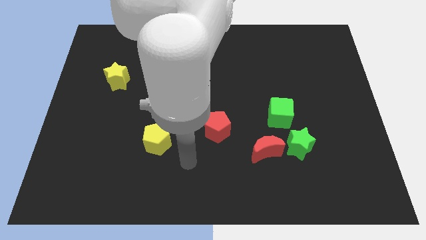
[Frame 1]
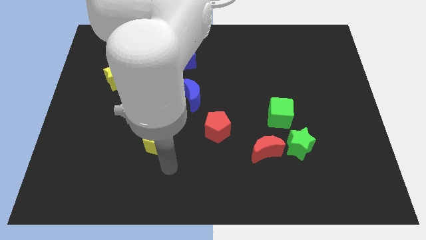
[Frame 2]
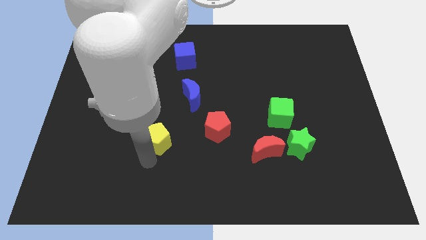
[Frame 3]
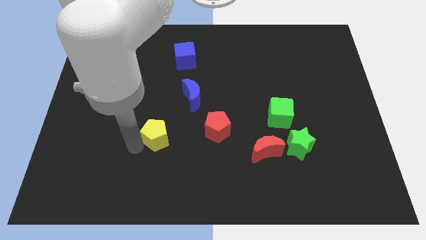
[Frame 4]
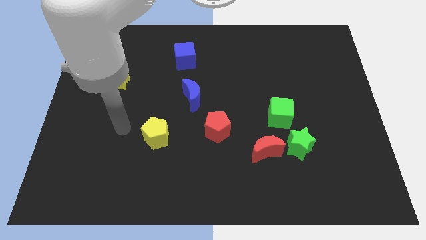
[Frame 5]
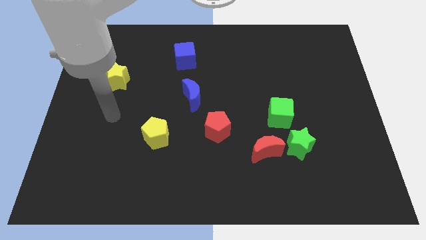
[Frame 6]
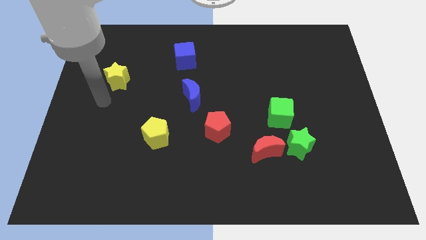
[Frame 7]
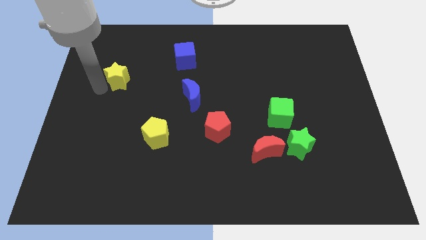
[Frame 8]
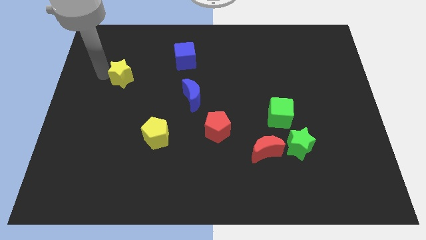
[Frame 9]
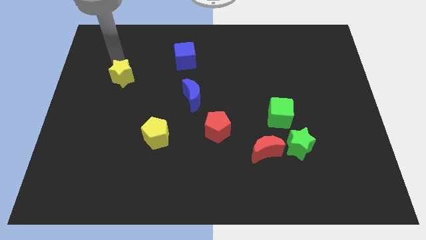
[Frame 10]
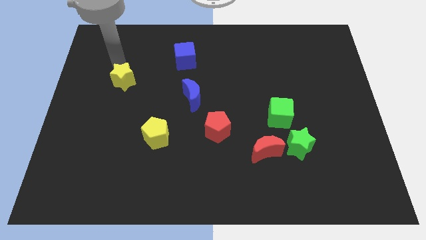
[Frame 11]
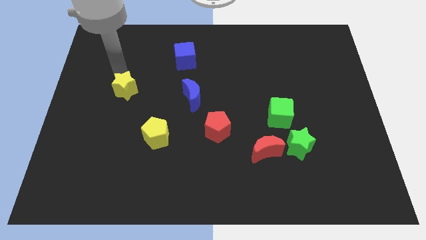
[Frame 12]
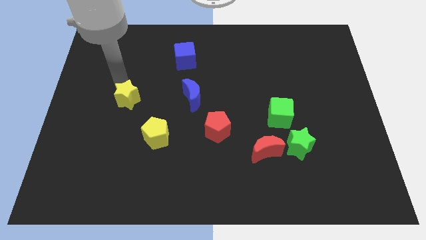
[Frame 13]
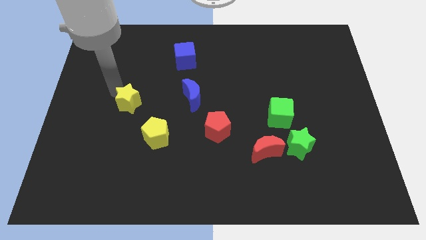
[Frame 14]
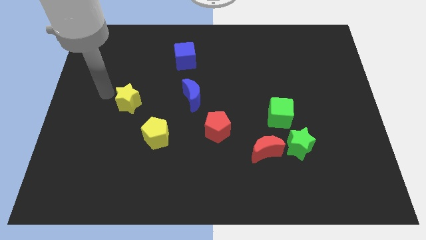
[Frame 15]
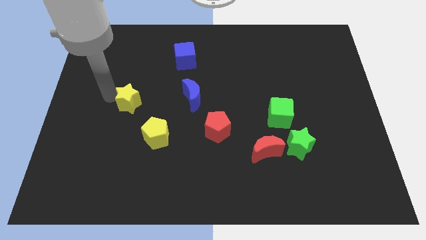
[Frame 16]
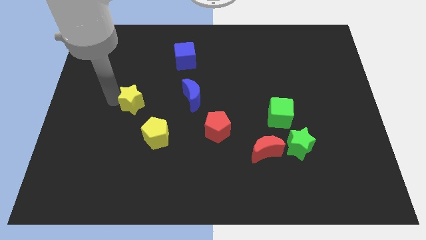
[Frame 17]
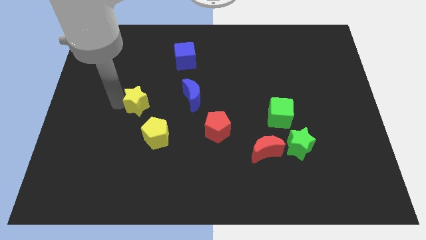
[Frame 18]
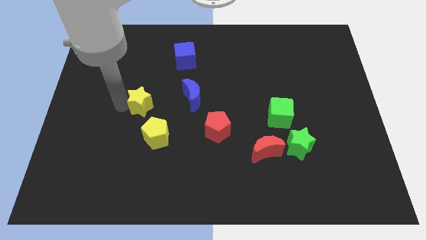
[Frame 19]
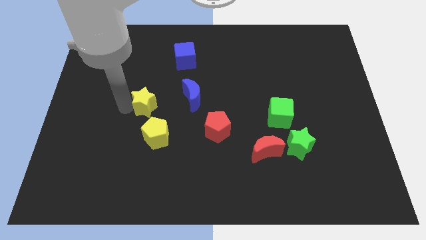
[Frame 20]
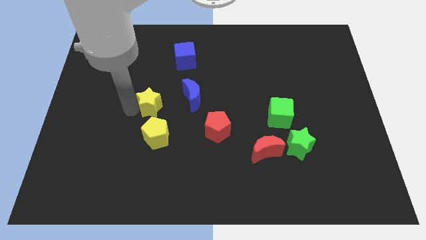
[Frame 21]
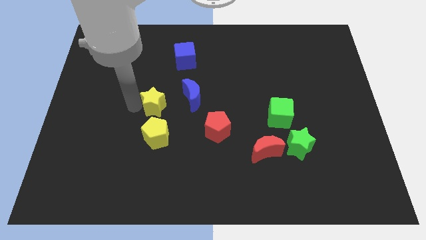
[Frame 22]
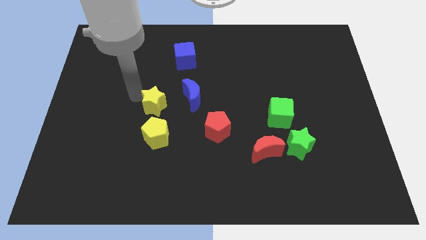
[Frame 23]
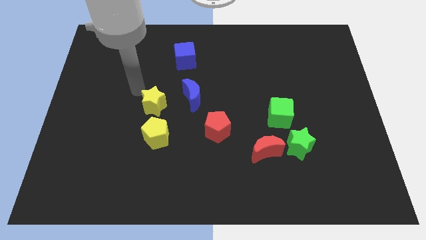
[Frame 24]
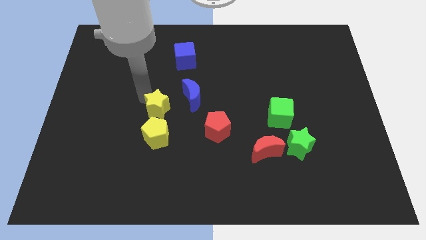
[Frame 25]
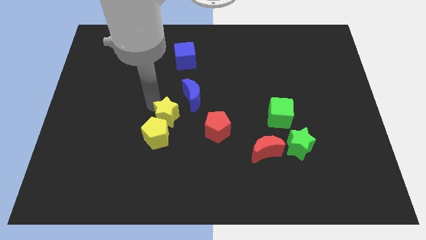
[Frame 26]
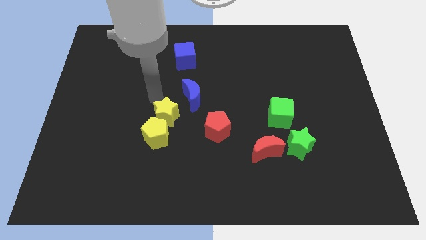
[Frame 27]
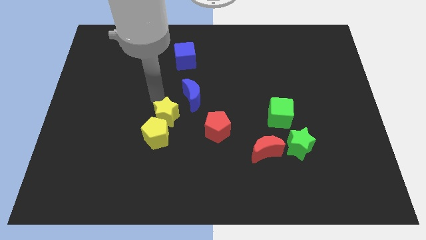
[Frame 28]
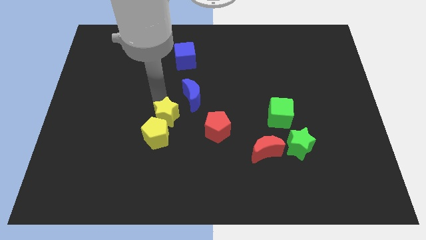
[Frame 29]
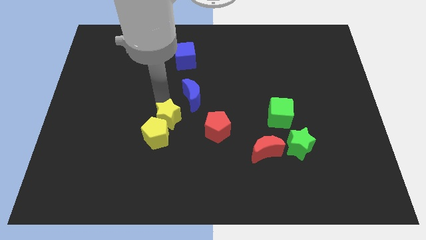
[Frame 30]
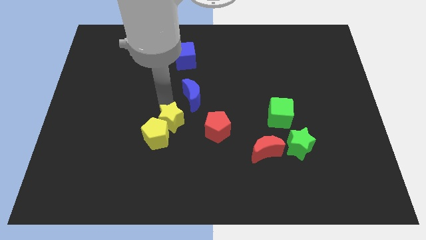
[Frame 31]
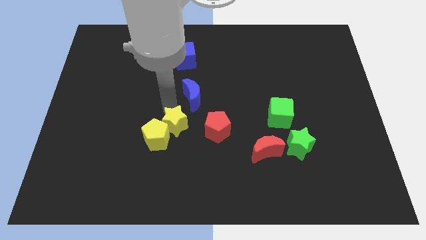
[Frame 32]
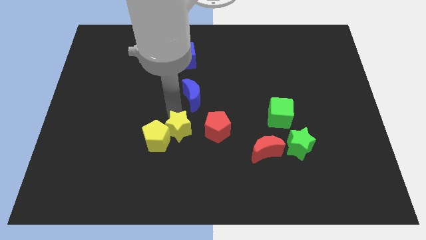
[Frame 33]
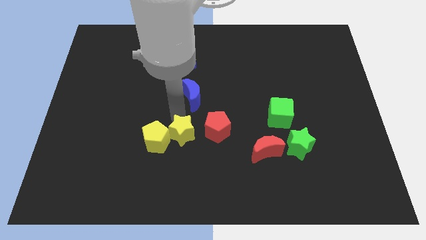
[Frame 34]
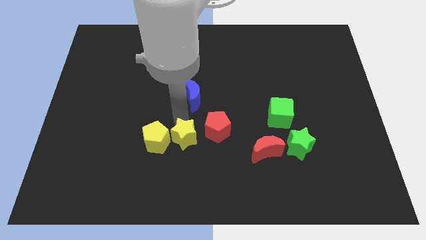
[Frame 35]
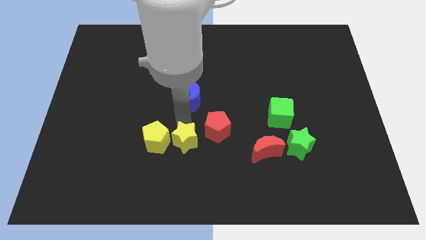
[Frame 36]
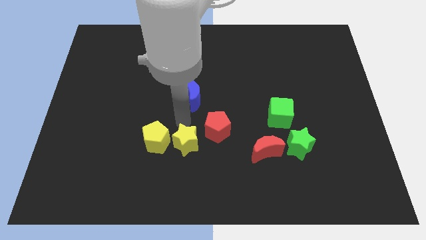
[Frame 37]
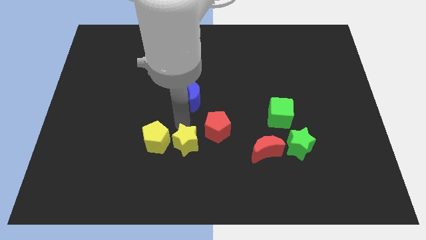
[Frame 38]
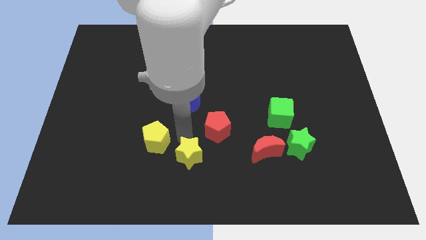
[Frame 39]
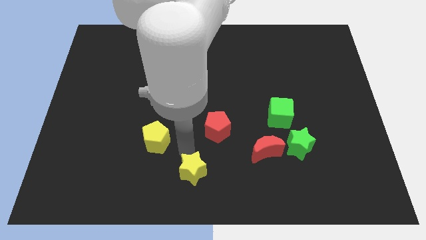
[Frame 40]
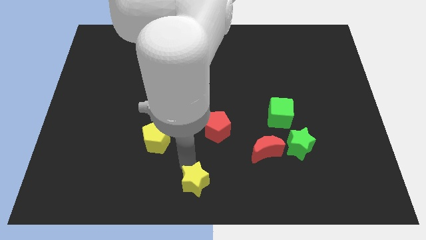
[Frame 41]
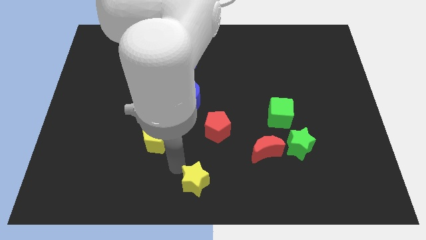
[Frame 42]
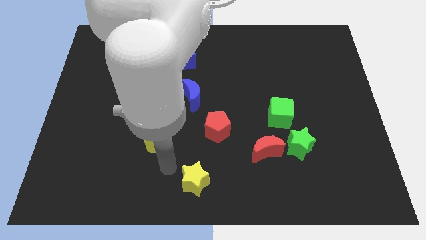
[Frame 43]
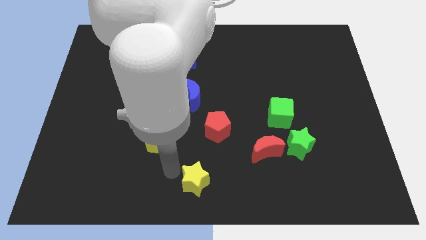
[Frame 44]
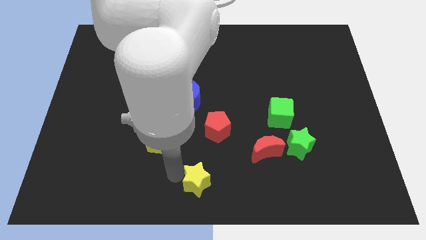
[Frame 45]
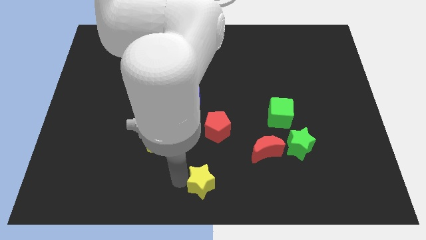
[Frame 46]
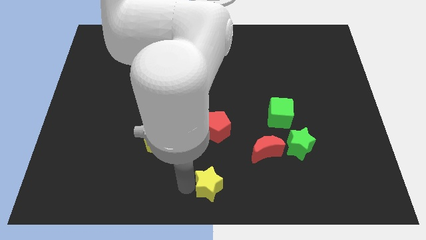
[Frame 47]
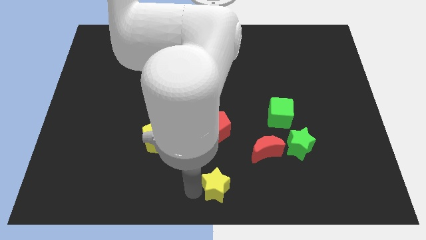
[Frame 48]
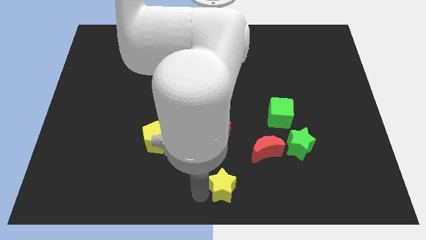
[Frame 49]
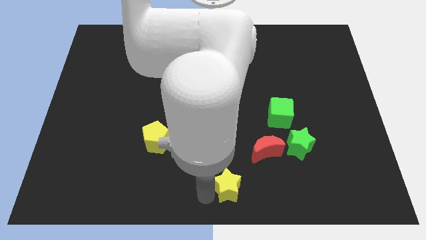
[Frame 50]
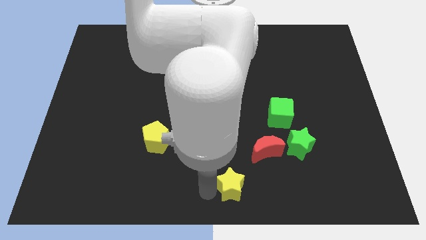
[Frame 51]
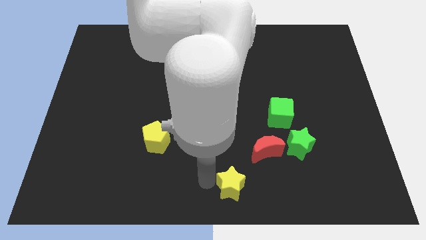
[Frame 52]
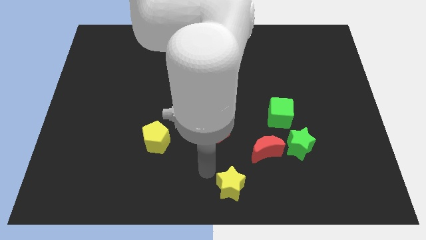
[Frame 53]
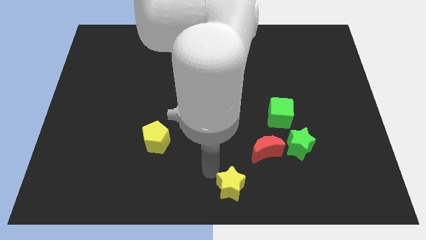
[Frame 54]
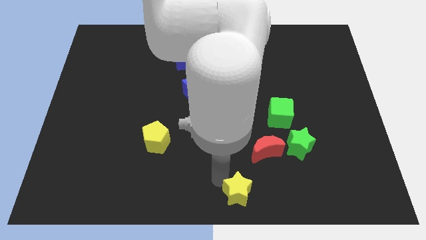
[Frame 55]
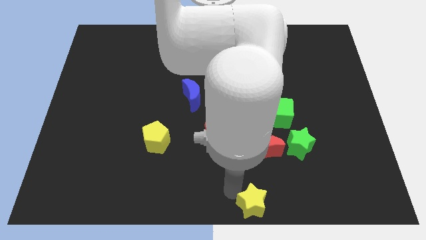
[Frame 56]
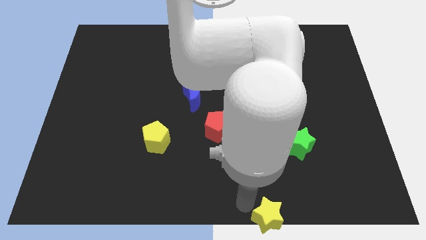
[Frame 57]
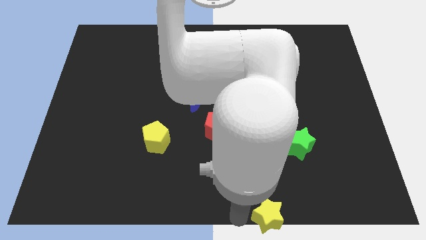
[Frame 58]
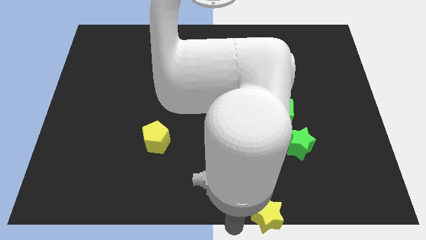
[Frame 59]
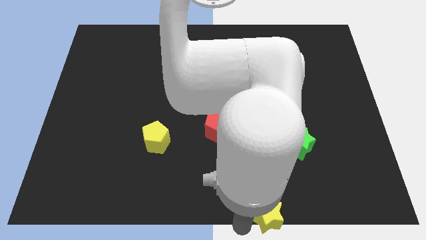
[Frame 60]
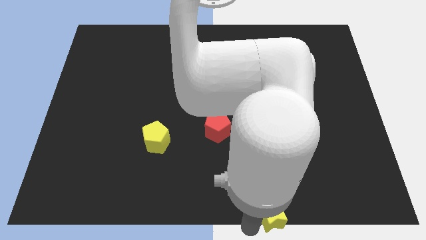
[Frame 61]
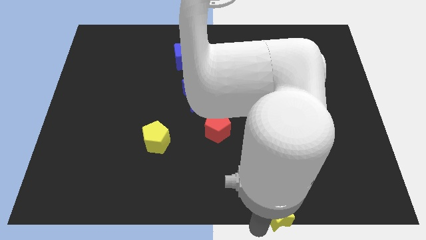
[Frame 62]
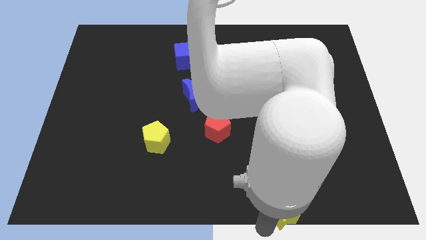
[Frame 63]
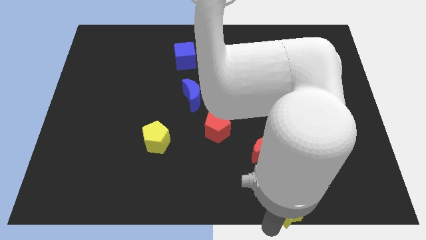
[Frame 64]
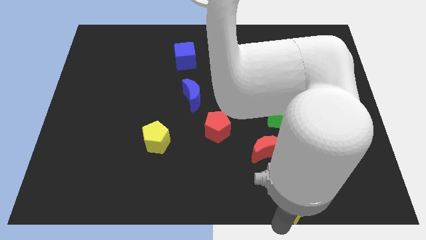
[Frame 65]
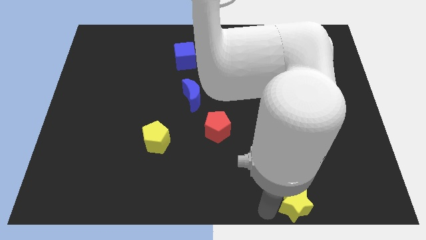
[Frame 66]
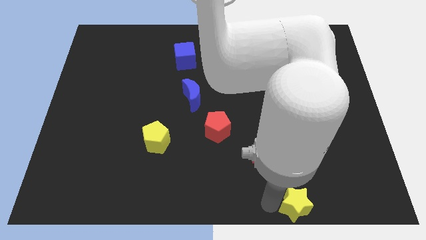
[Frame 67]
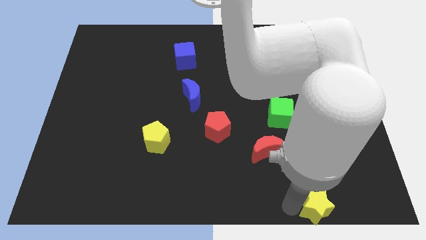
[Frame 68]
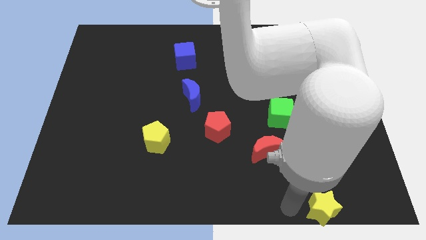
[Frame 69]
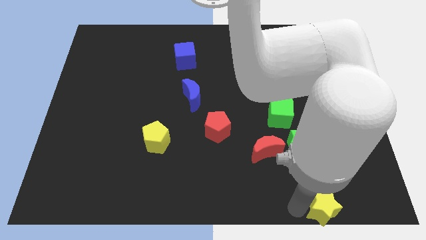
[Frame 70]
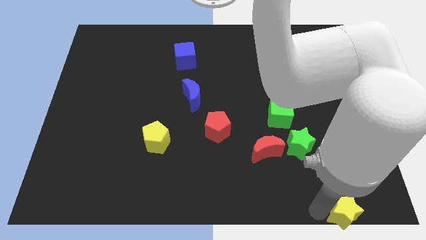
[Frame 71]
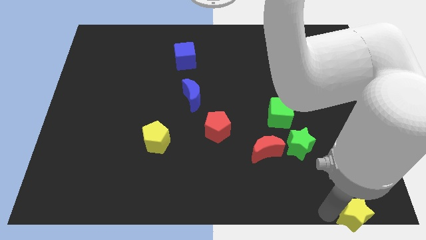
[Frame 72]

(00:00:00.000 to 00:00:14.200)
push the yellow star to the bottom right

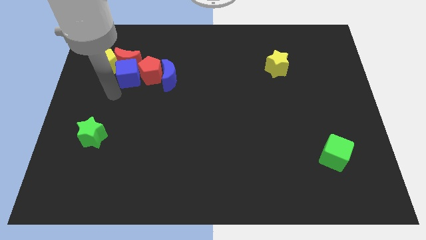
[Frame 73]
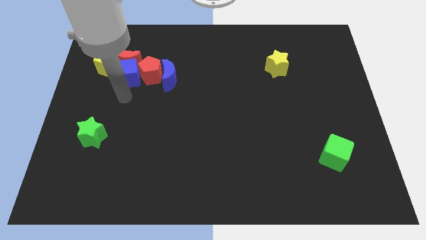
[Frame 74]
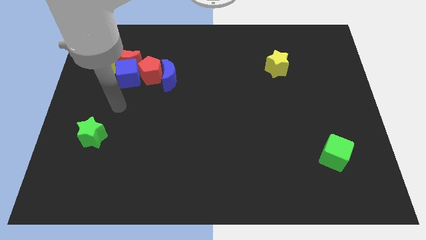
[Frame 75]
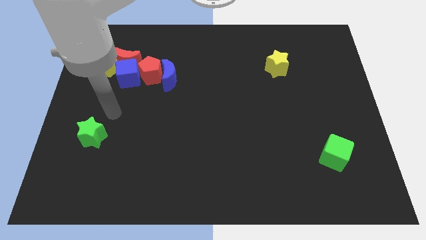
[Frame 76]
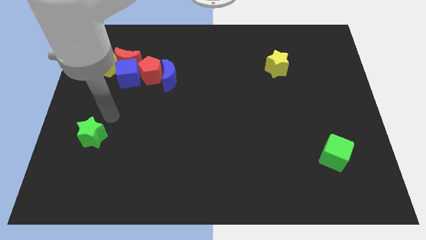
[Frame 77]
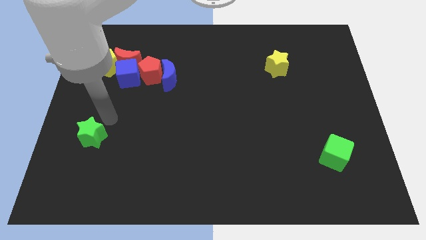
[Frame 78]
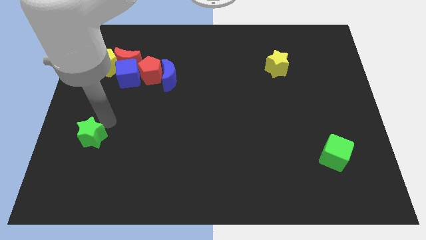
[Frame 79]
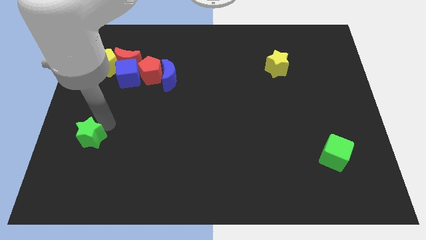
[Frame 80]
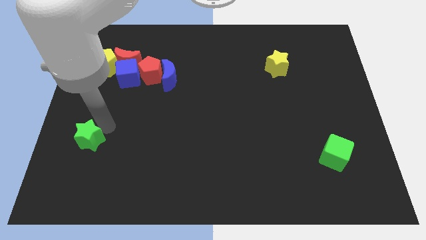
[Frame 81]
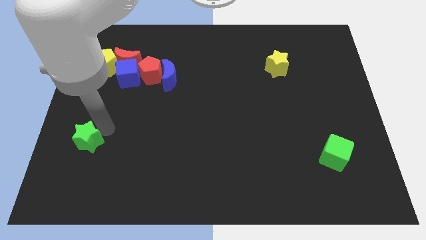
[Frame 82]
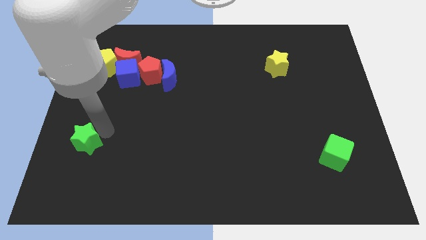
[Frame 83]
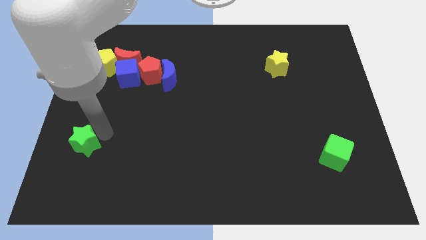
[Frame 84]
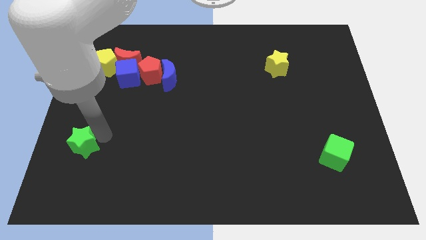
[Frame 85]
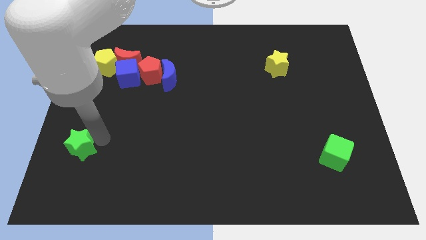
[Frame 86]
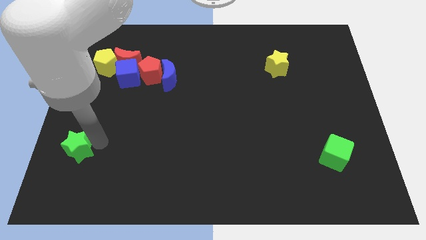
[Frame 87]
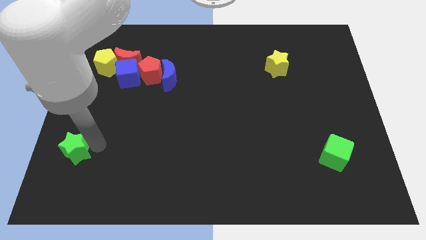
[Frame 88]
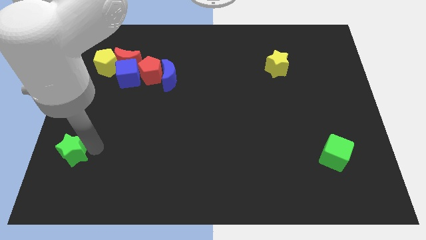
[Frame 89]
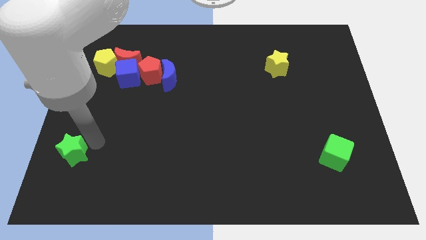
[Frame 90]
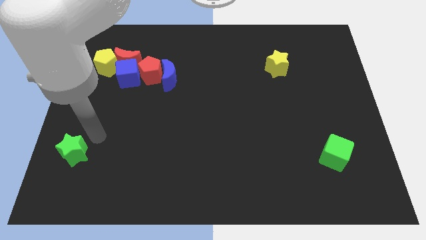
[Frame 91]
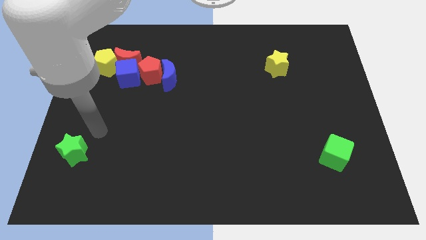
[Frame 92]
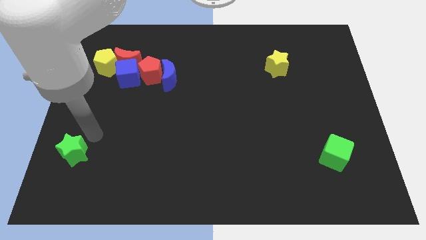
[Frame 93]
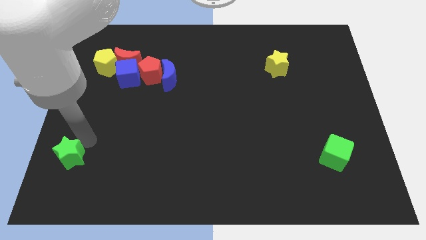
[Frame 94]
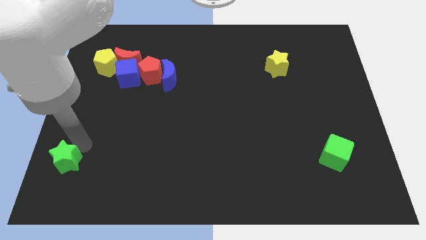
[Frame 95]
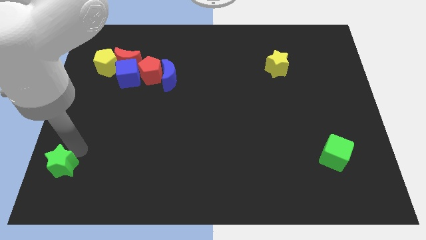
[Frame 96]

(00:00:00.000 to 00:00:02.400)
put the green star to the lower left corner
